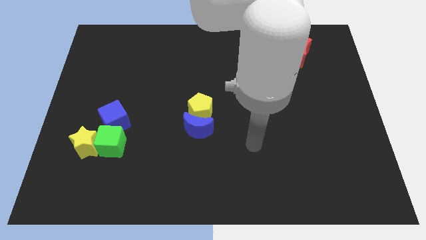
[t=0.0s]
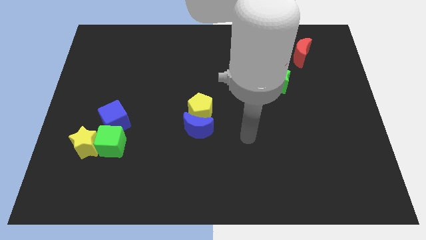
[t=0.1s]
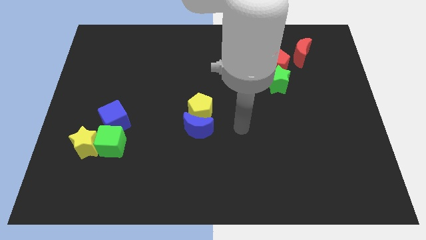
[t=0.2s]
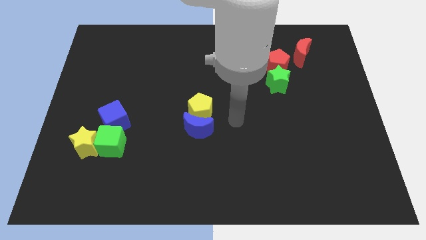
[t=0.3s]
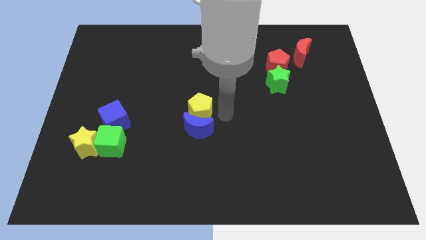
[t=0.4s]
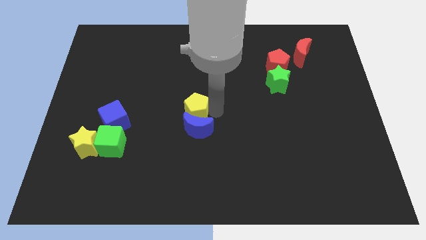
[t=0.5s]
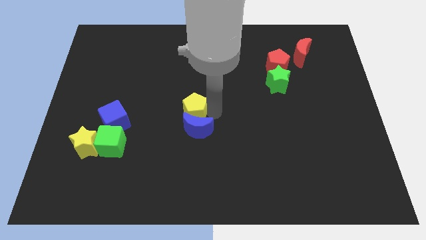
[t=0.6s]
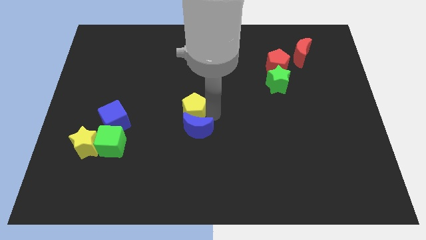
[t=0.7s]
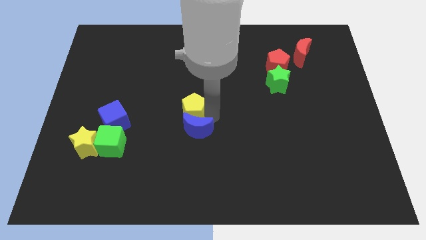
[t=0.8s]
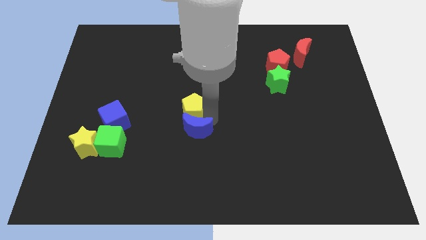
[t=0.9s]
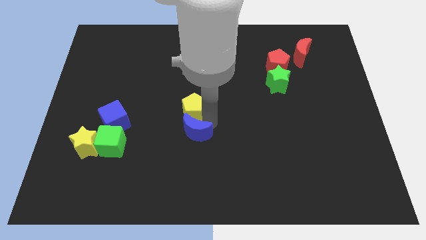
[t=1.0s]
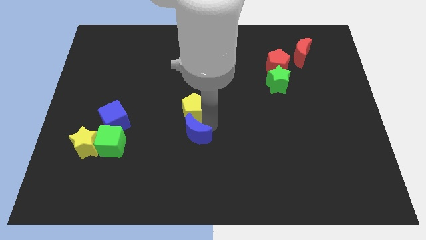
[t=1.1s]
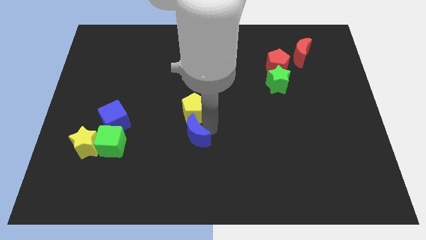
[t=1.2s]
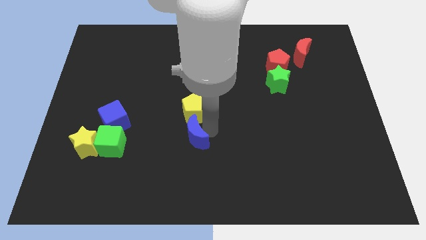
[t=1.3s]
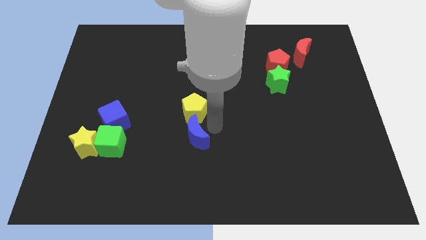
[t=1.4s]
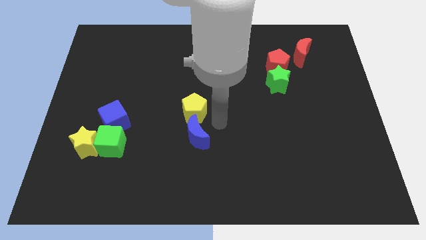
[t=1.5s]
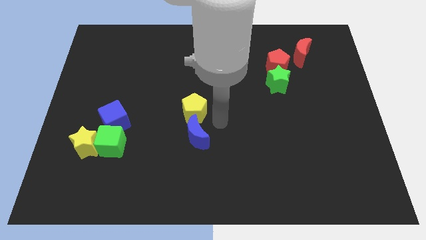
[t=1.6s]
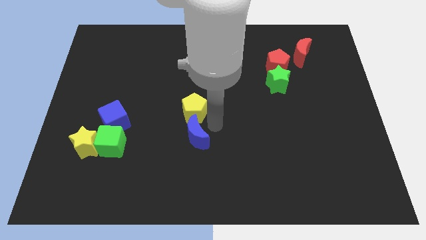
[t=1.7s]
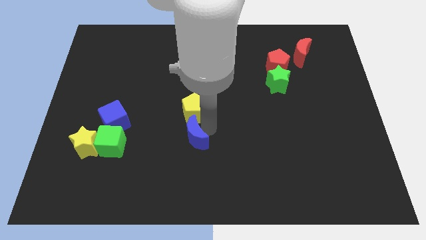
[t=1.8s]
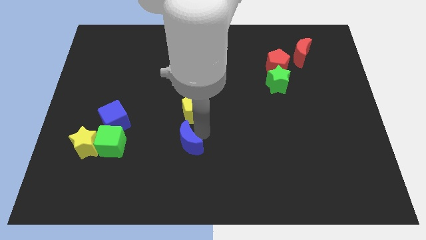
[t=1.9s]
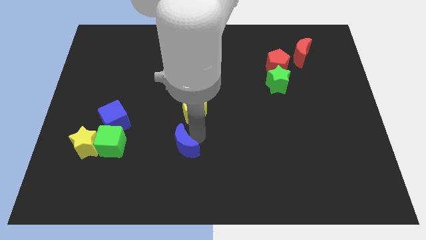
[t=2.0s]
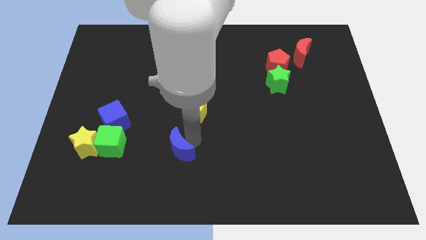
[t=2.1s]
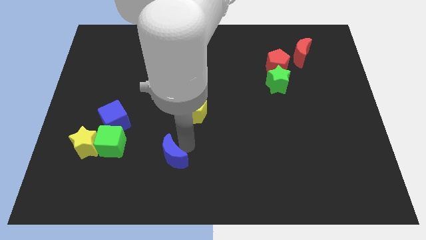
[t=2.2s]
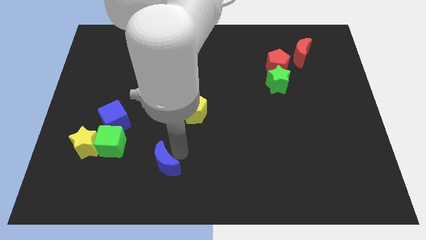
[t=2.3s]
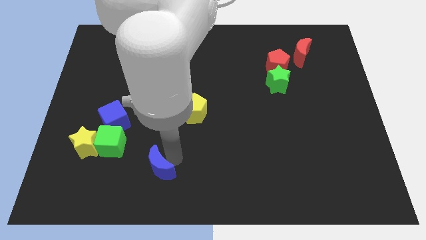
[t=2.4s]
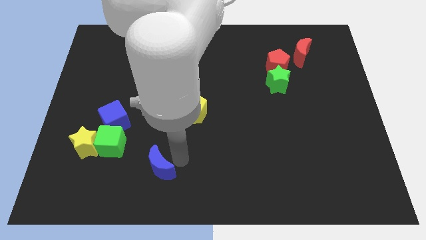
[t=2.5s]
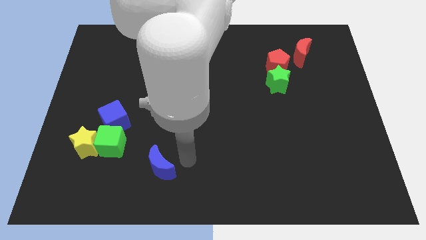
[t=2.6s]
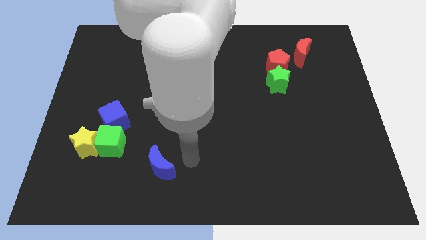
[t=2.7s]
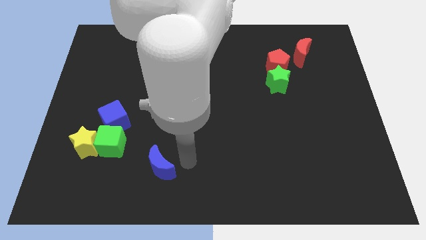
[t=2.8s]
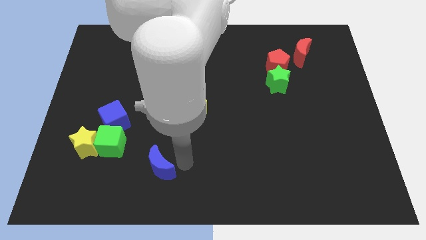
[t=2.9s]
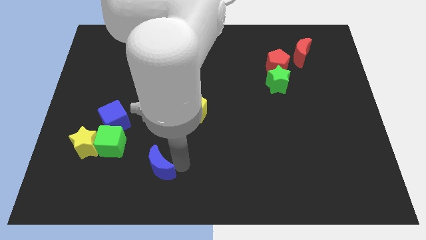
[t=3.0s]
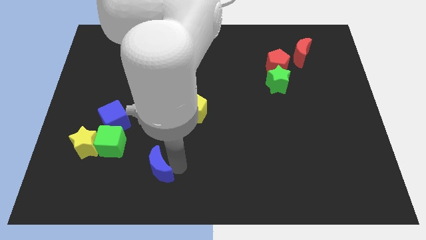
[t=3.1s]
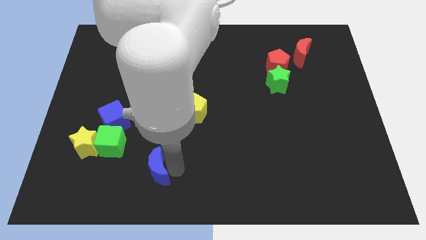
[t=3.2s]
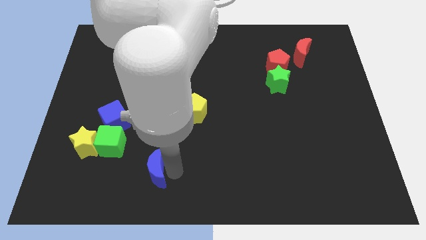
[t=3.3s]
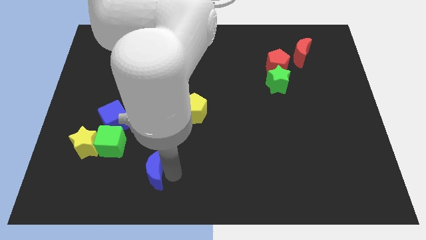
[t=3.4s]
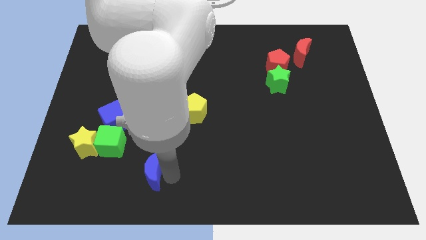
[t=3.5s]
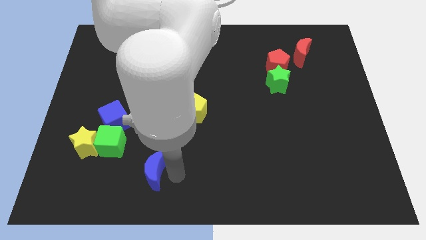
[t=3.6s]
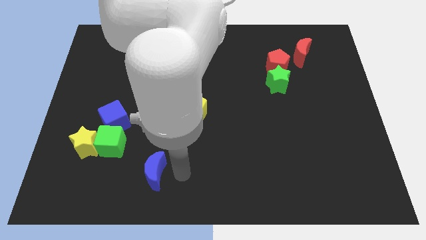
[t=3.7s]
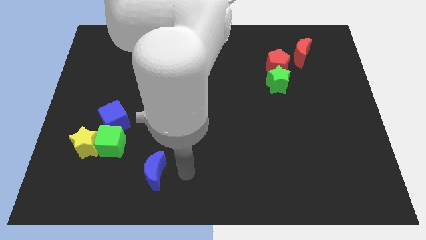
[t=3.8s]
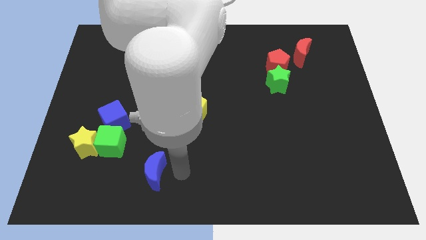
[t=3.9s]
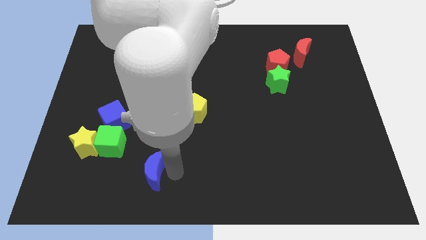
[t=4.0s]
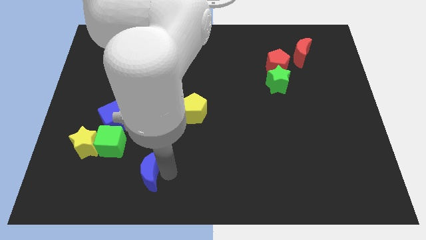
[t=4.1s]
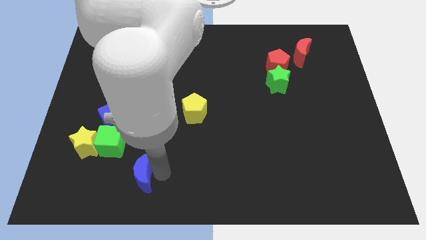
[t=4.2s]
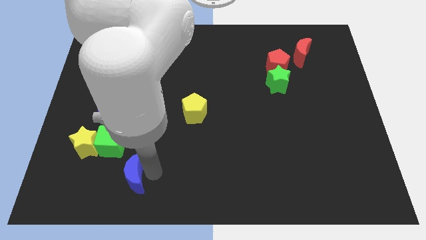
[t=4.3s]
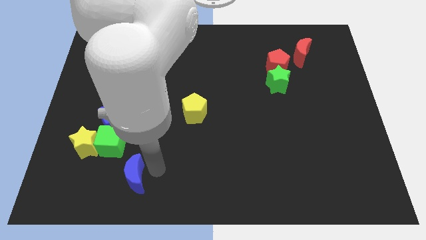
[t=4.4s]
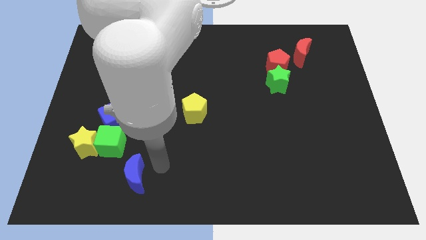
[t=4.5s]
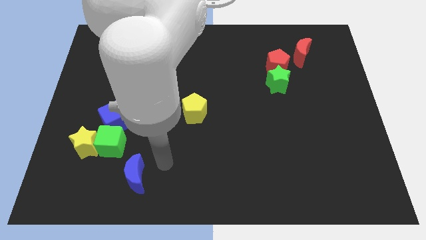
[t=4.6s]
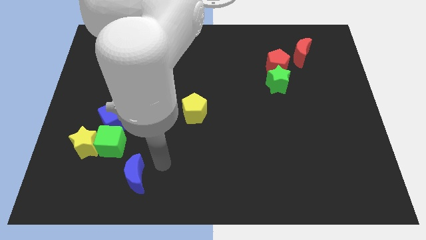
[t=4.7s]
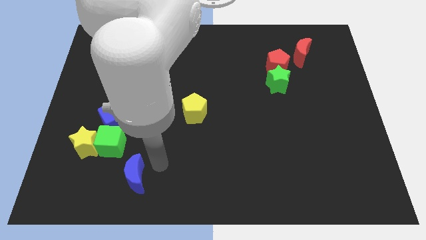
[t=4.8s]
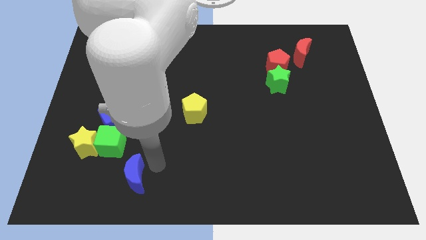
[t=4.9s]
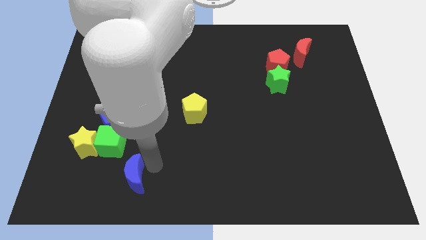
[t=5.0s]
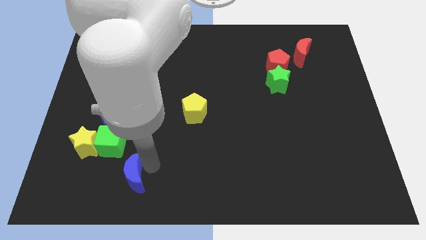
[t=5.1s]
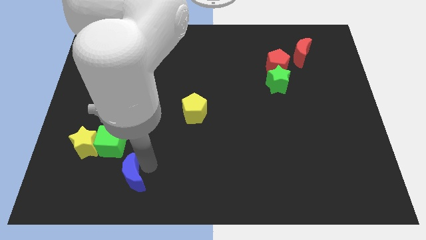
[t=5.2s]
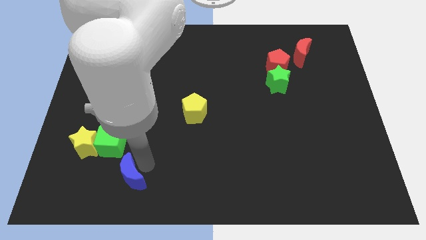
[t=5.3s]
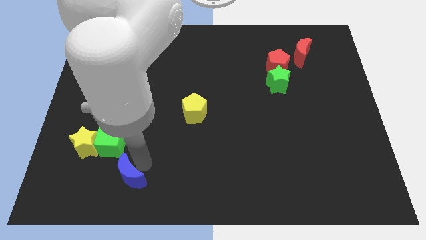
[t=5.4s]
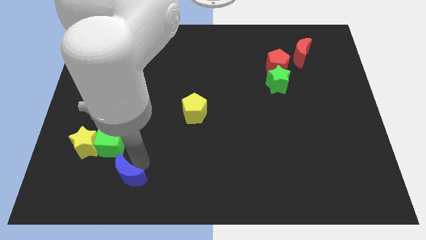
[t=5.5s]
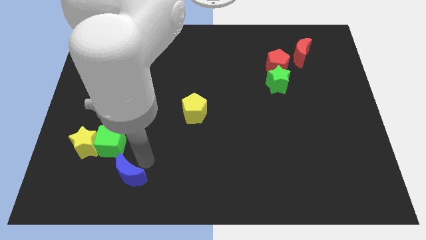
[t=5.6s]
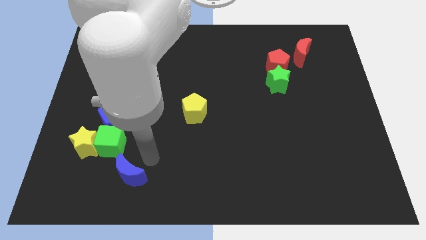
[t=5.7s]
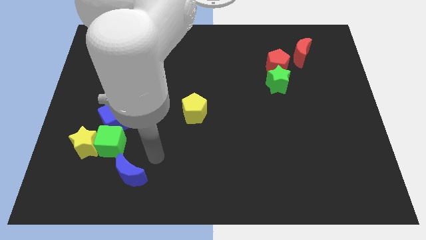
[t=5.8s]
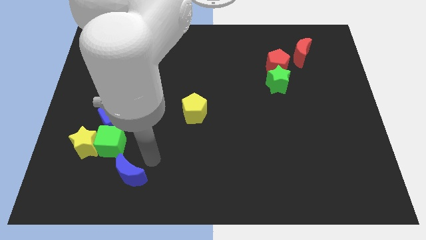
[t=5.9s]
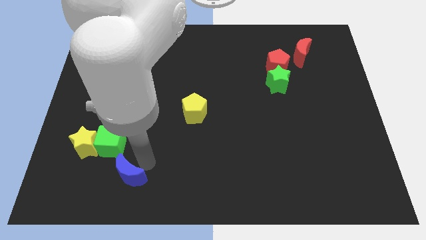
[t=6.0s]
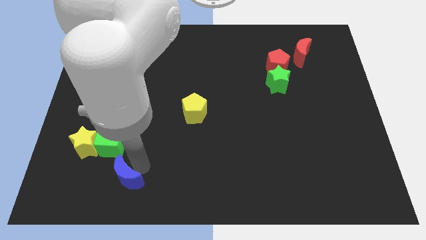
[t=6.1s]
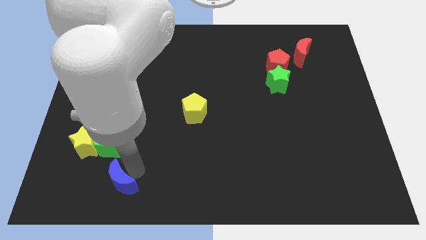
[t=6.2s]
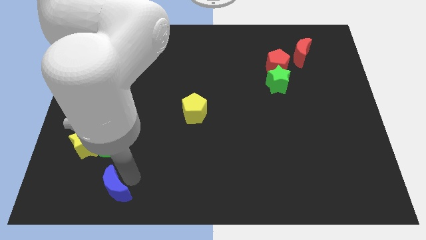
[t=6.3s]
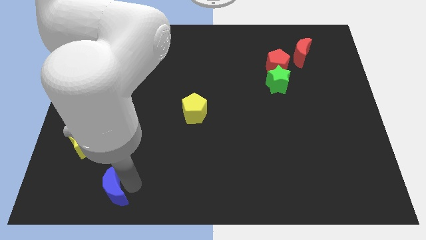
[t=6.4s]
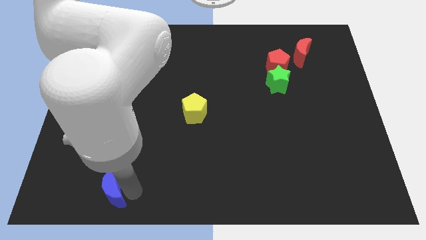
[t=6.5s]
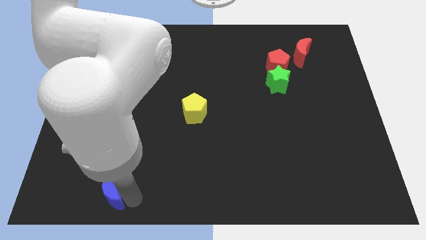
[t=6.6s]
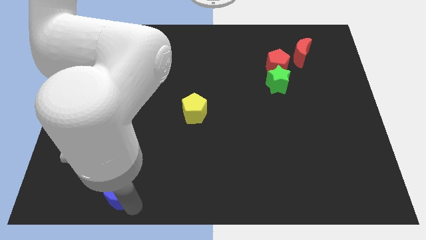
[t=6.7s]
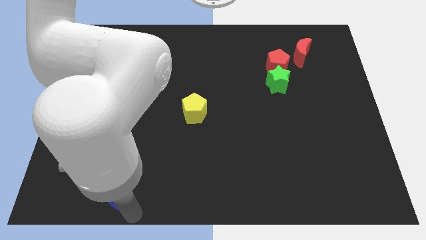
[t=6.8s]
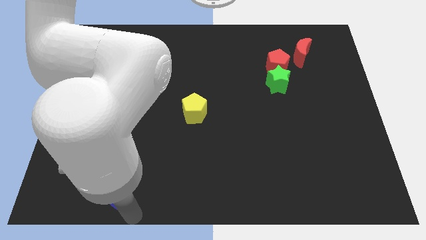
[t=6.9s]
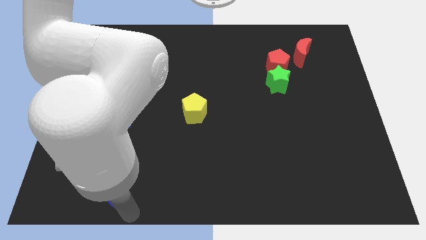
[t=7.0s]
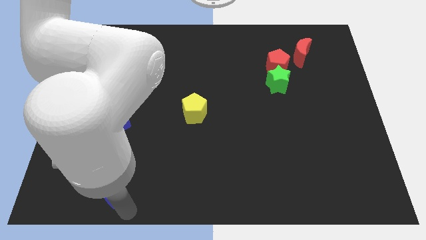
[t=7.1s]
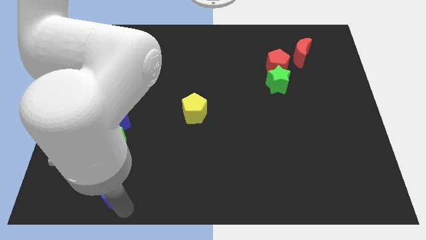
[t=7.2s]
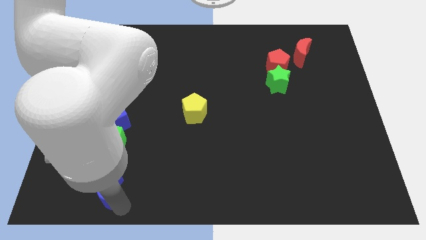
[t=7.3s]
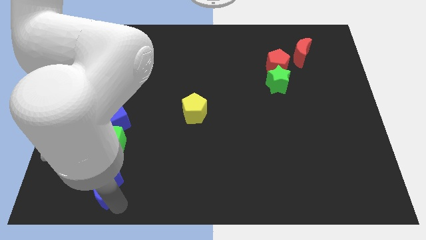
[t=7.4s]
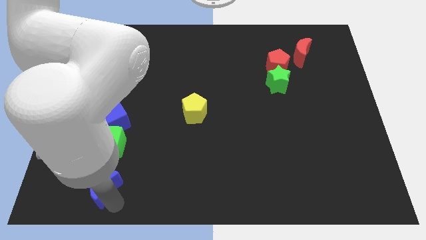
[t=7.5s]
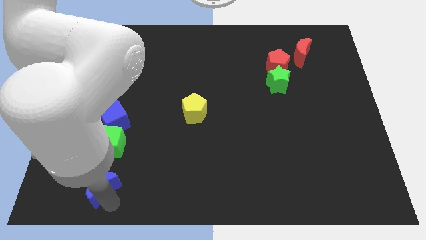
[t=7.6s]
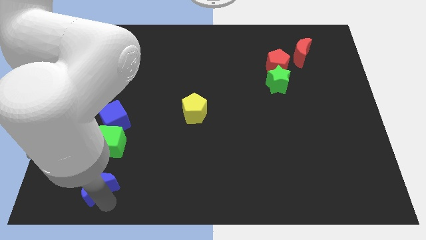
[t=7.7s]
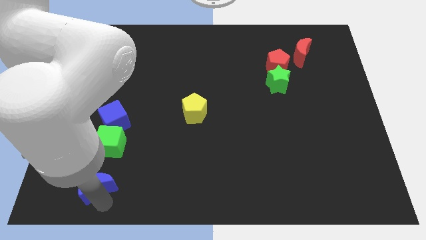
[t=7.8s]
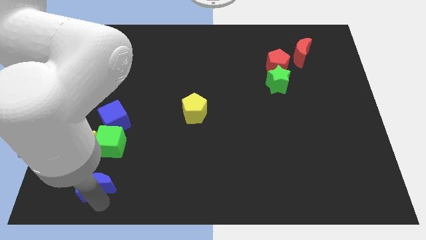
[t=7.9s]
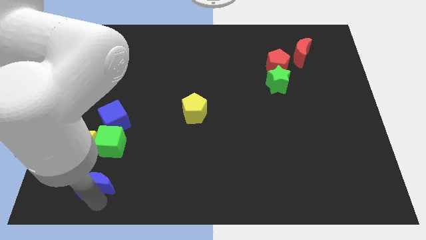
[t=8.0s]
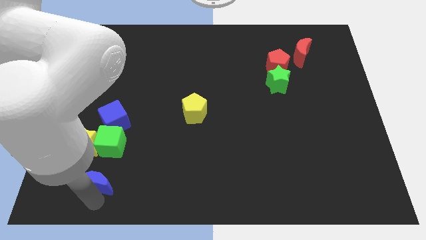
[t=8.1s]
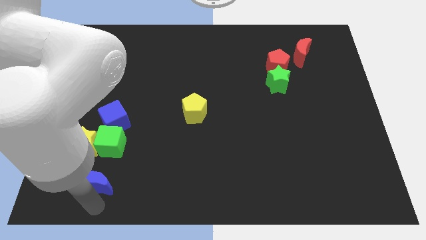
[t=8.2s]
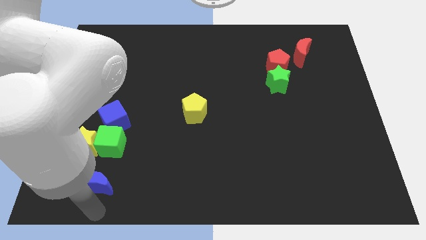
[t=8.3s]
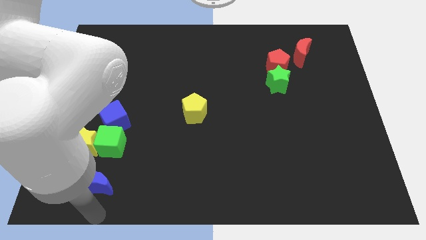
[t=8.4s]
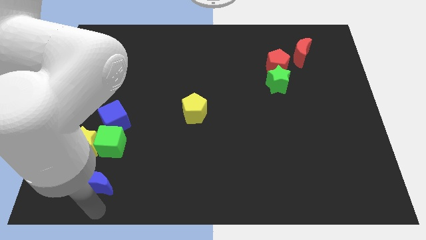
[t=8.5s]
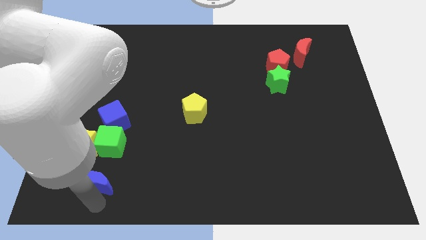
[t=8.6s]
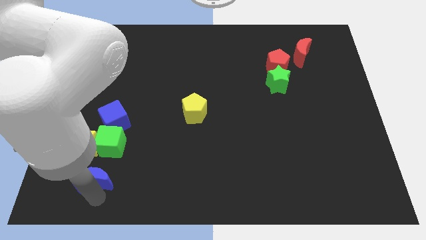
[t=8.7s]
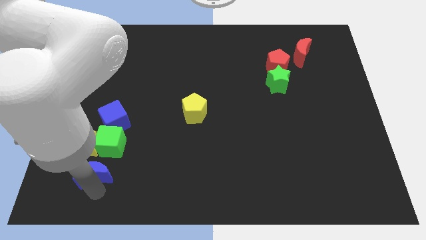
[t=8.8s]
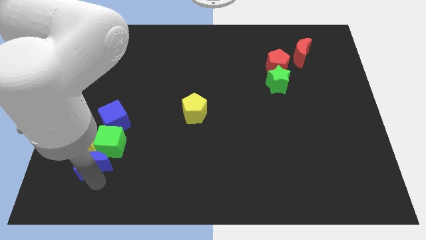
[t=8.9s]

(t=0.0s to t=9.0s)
slide the blue moon to the yellow star
